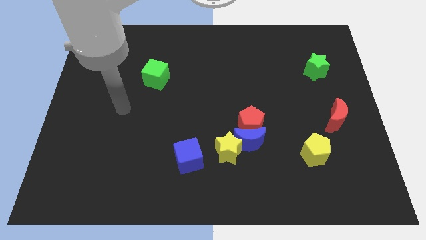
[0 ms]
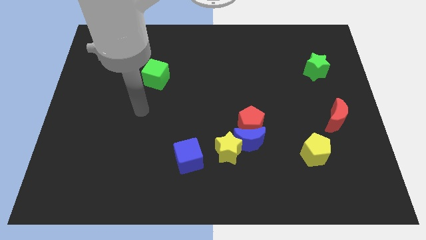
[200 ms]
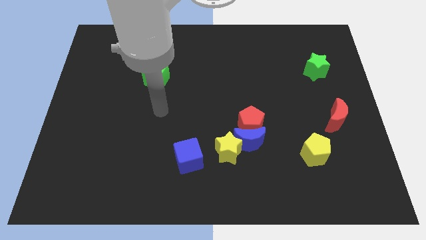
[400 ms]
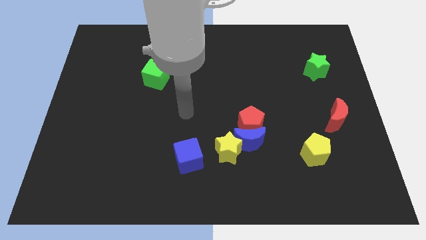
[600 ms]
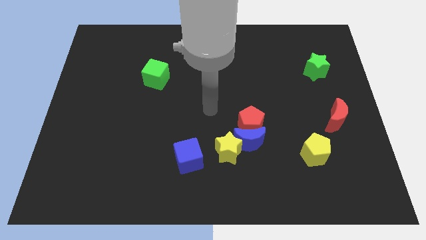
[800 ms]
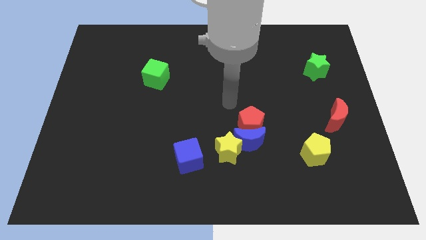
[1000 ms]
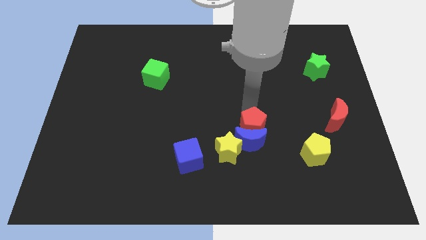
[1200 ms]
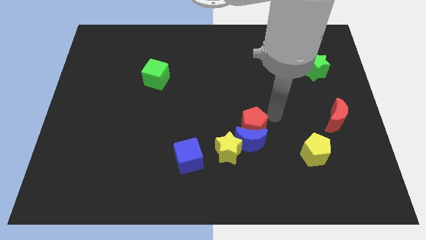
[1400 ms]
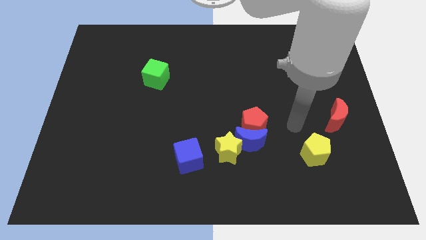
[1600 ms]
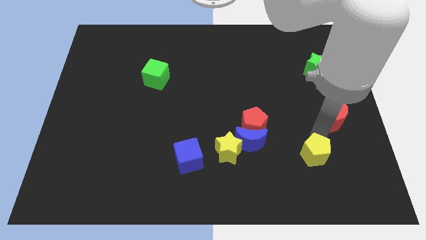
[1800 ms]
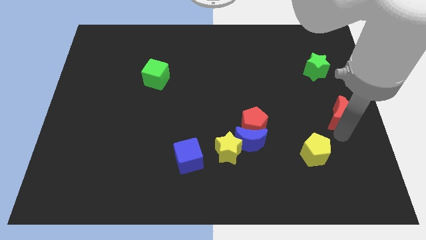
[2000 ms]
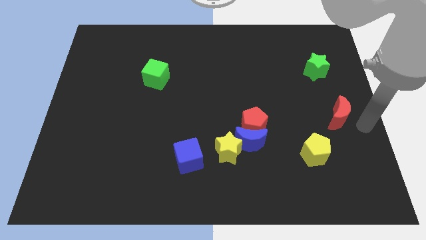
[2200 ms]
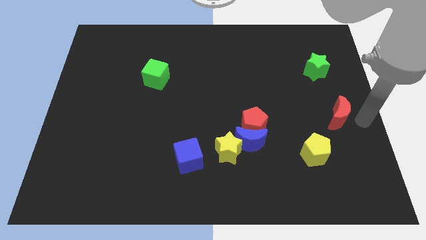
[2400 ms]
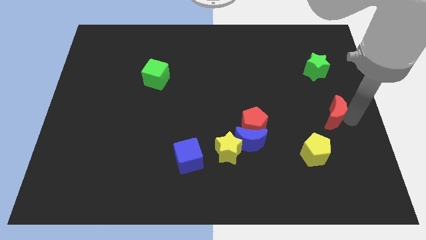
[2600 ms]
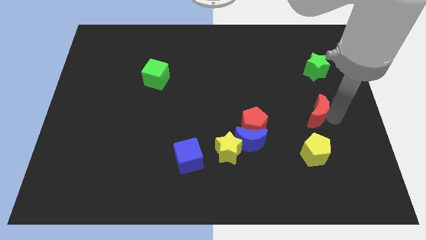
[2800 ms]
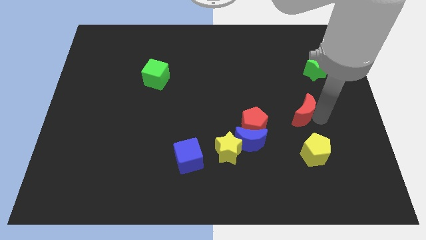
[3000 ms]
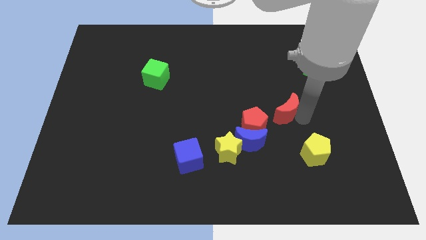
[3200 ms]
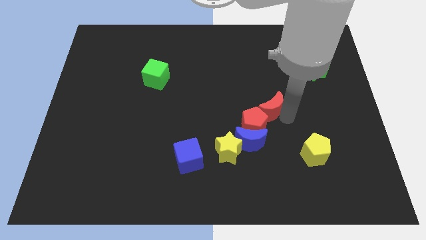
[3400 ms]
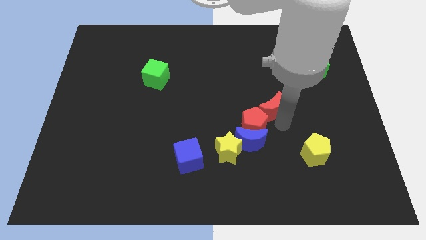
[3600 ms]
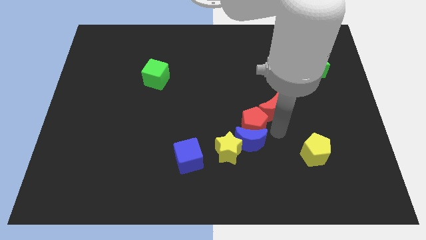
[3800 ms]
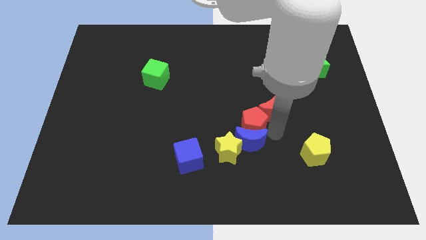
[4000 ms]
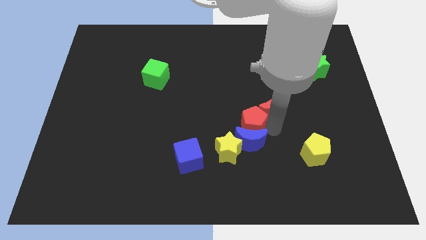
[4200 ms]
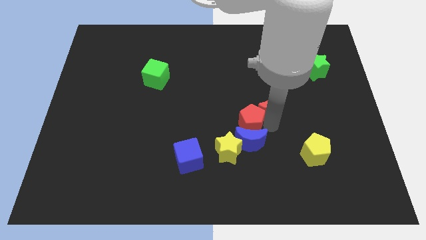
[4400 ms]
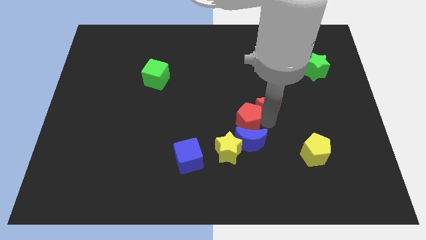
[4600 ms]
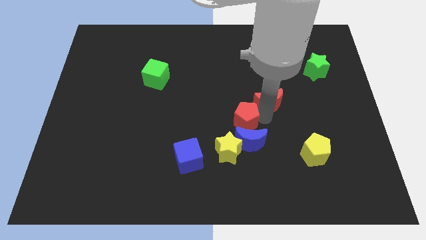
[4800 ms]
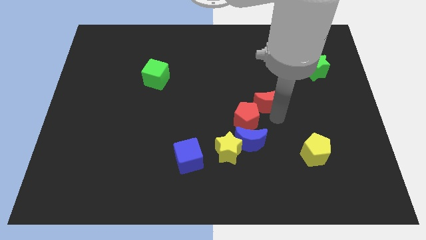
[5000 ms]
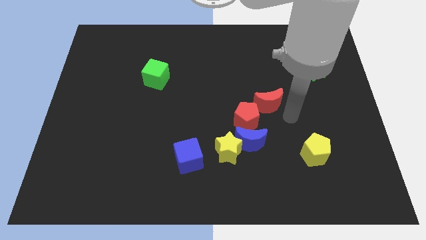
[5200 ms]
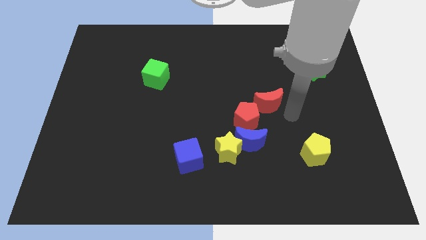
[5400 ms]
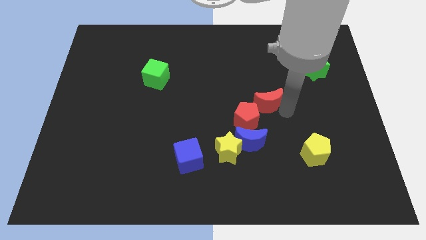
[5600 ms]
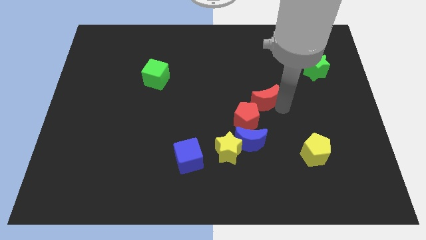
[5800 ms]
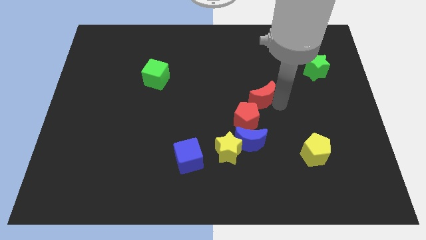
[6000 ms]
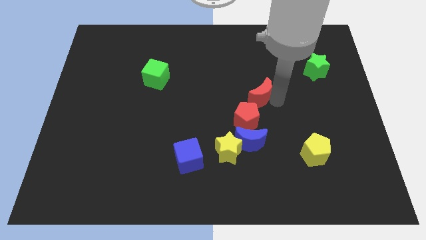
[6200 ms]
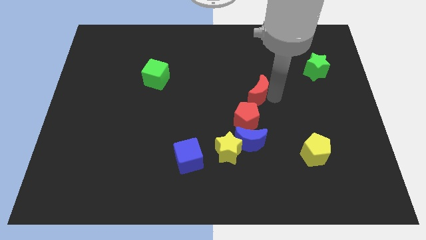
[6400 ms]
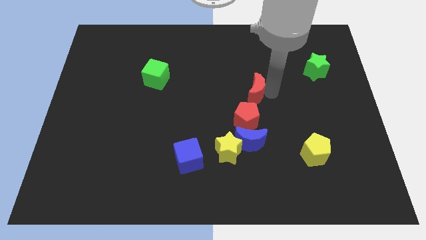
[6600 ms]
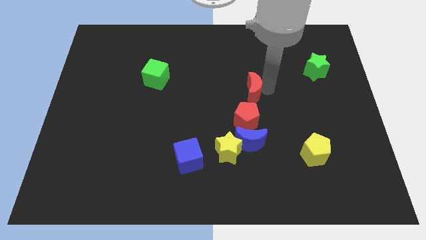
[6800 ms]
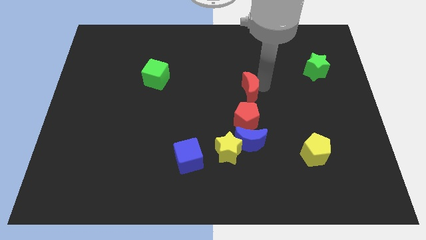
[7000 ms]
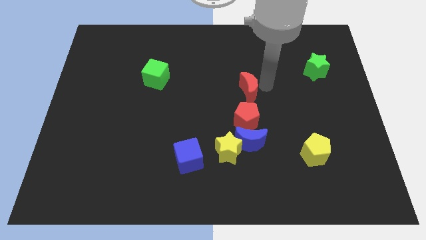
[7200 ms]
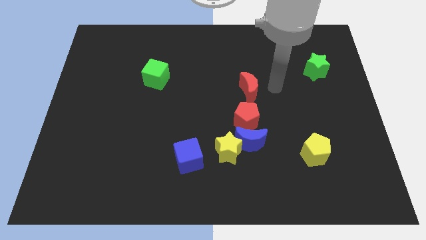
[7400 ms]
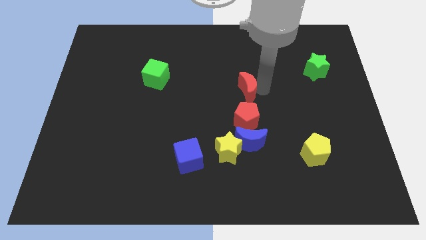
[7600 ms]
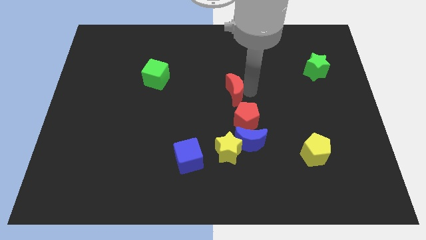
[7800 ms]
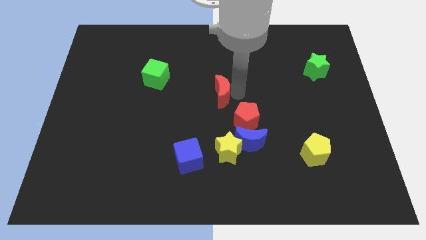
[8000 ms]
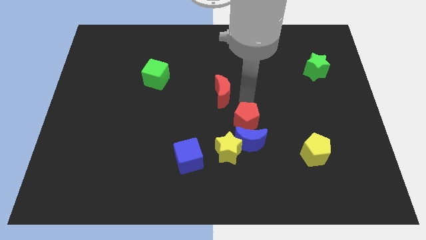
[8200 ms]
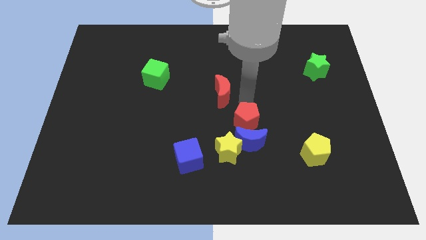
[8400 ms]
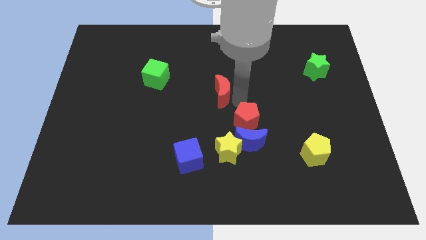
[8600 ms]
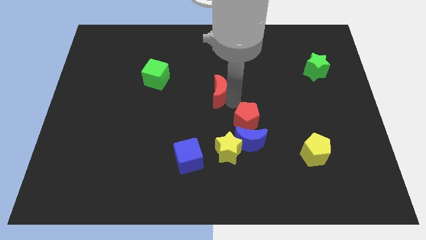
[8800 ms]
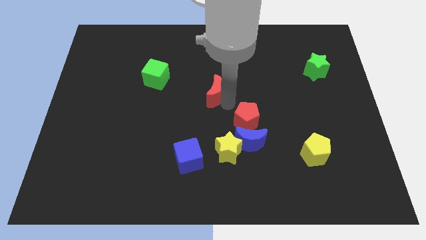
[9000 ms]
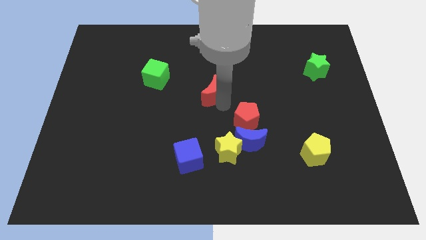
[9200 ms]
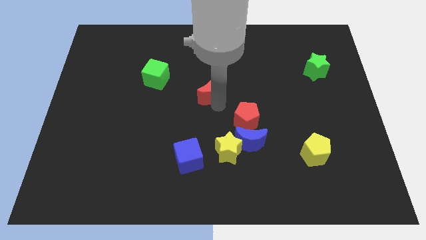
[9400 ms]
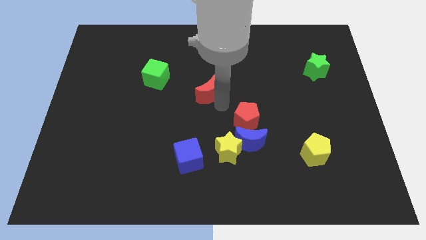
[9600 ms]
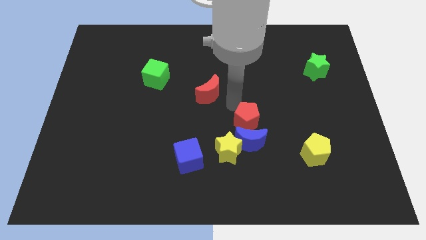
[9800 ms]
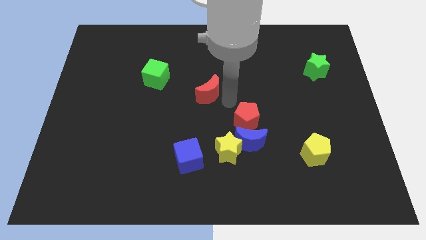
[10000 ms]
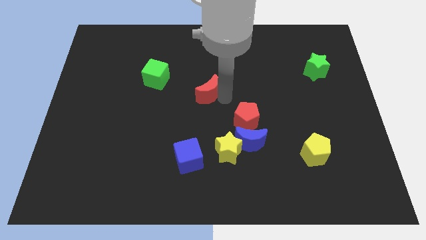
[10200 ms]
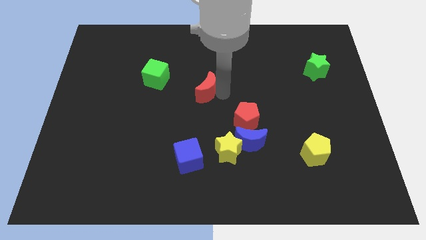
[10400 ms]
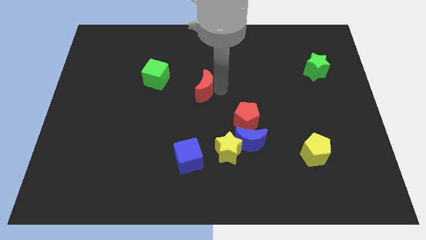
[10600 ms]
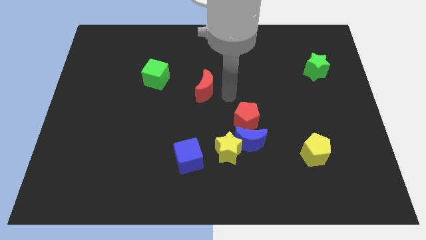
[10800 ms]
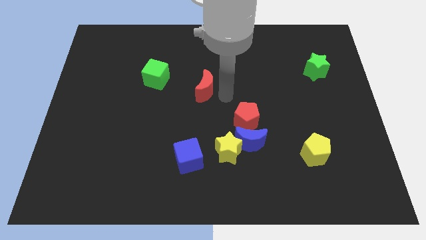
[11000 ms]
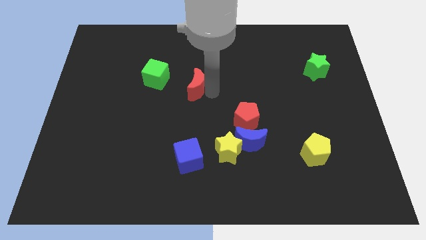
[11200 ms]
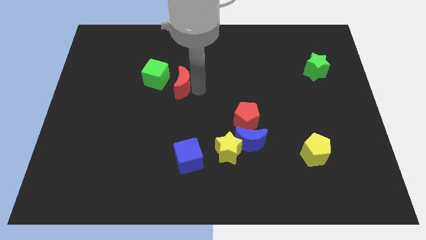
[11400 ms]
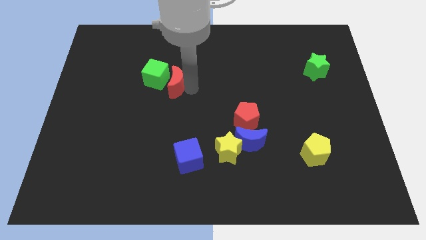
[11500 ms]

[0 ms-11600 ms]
move the red moon to the green cube

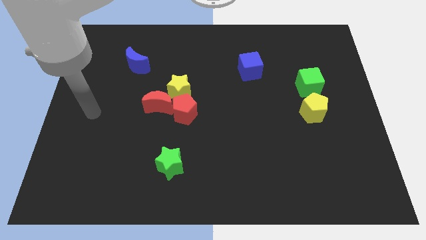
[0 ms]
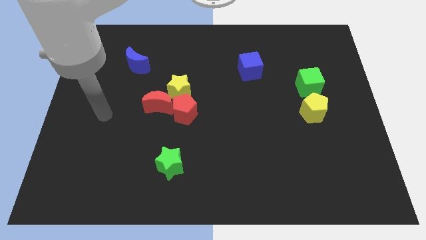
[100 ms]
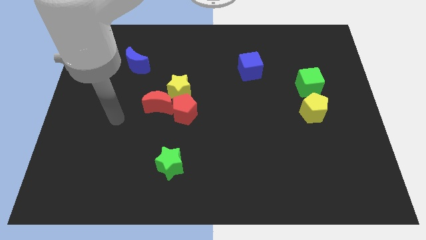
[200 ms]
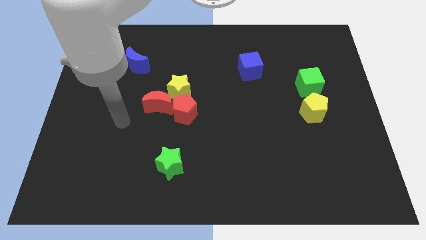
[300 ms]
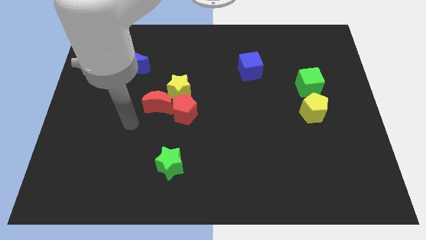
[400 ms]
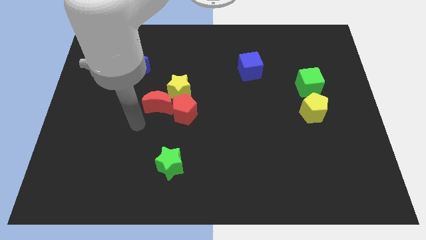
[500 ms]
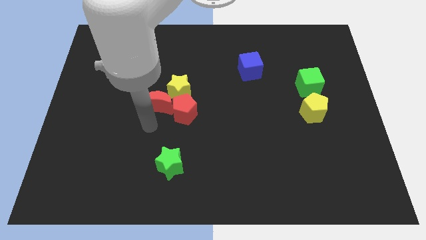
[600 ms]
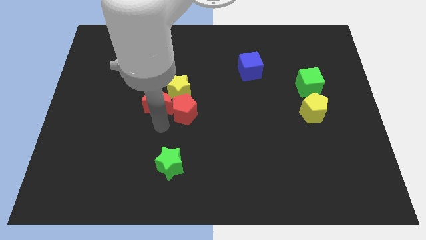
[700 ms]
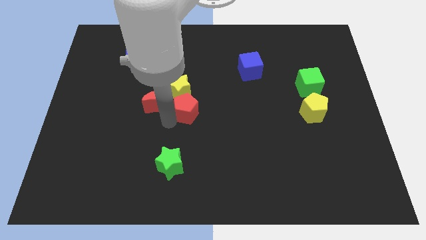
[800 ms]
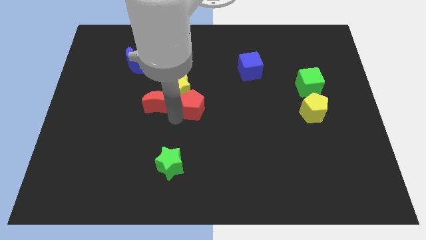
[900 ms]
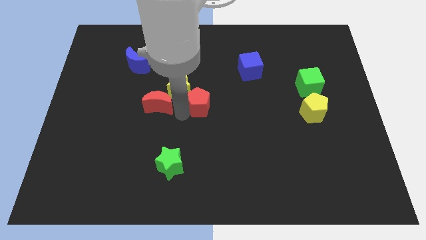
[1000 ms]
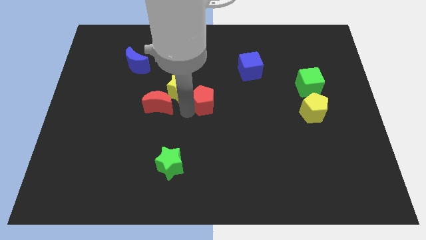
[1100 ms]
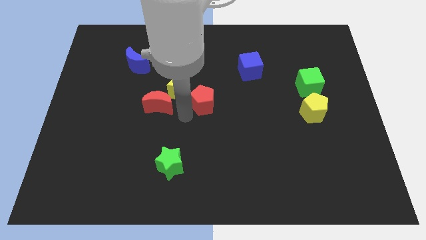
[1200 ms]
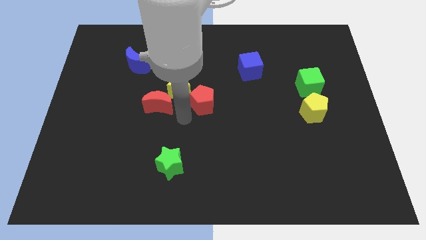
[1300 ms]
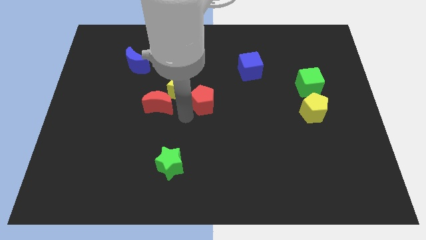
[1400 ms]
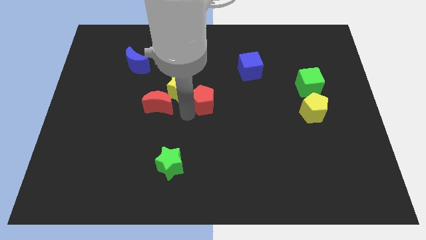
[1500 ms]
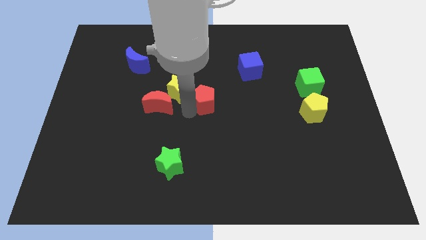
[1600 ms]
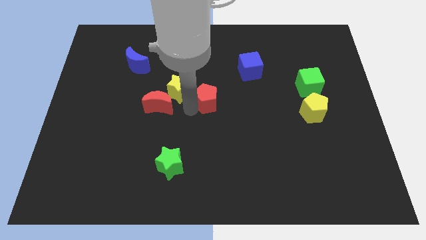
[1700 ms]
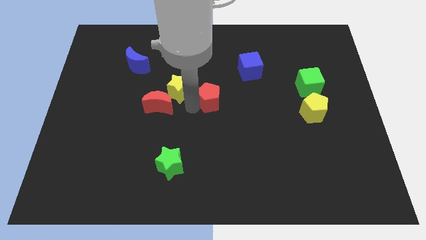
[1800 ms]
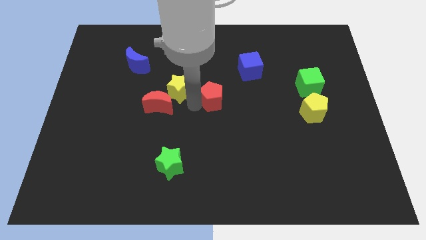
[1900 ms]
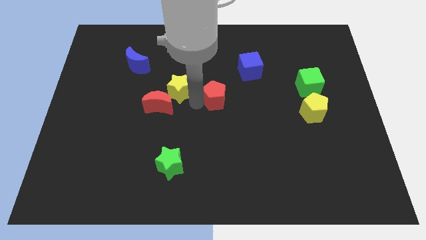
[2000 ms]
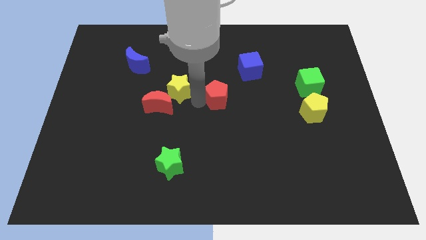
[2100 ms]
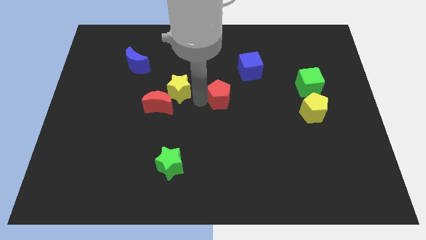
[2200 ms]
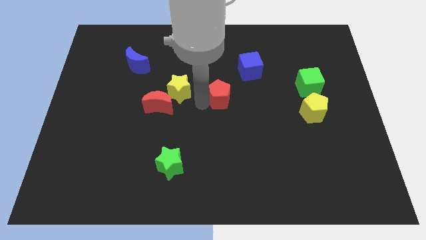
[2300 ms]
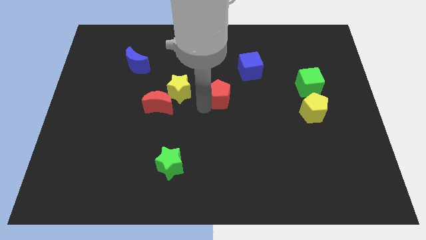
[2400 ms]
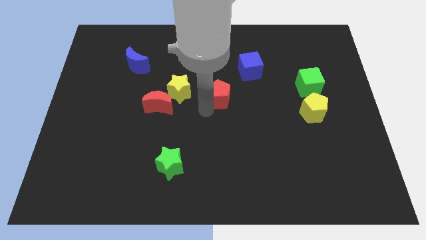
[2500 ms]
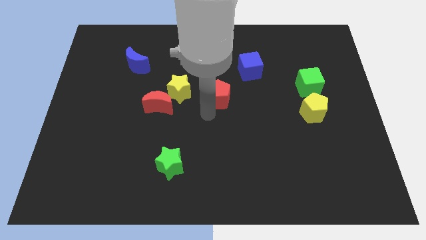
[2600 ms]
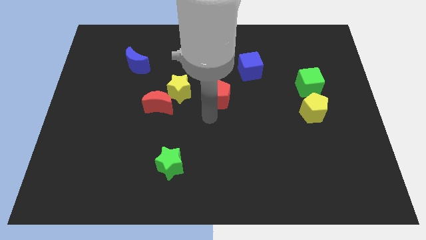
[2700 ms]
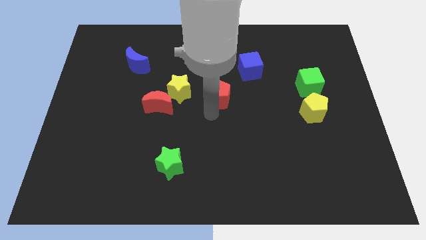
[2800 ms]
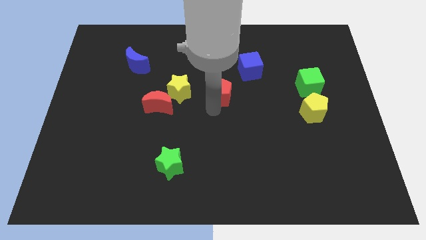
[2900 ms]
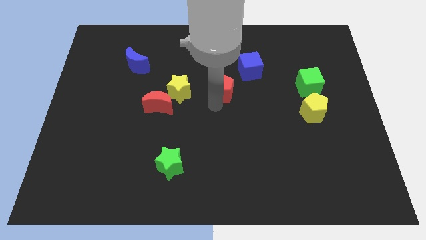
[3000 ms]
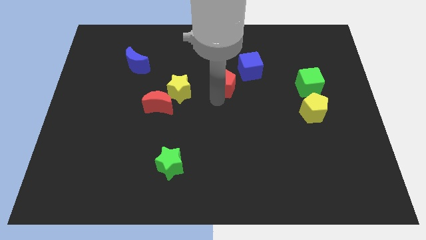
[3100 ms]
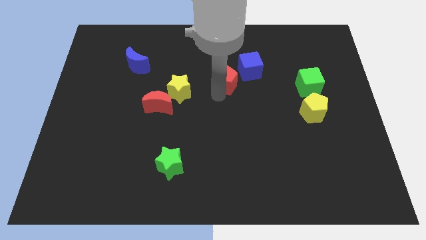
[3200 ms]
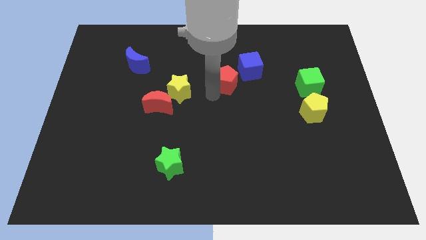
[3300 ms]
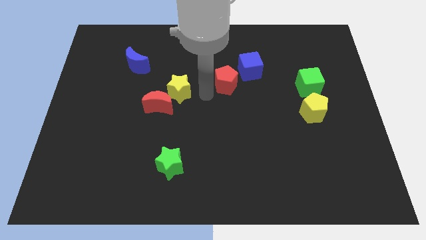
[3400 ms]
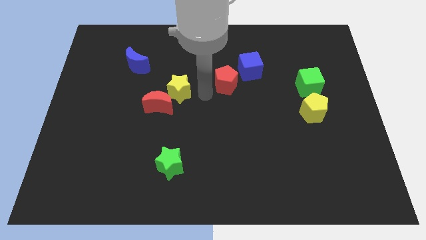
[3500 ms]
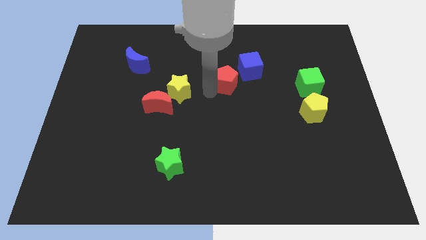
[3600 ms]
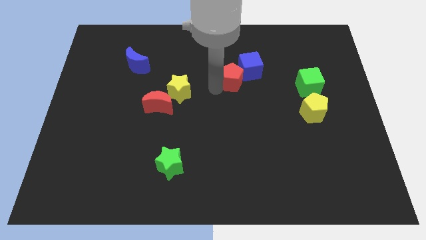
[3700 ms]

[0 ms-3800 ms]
put the red pentagon next to the blue cube
